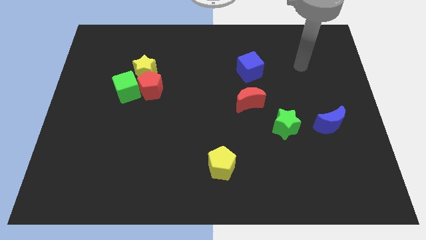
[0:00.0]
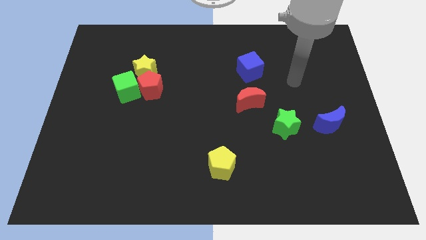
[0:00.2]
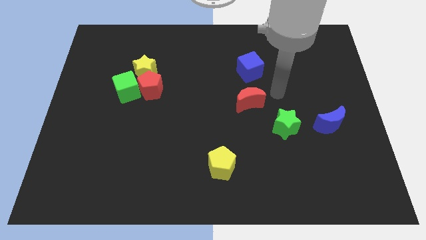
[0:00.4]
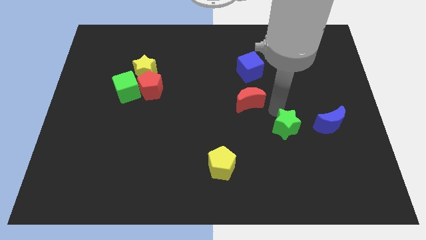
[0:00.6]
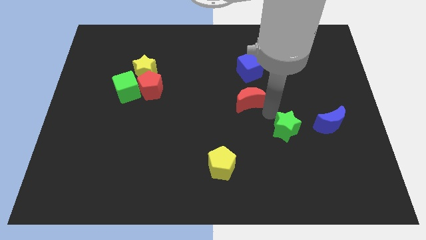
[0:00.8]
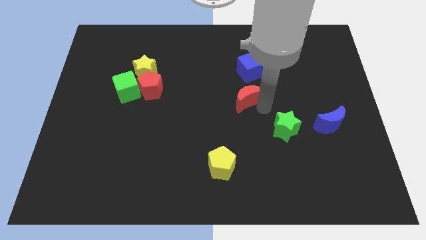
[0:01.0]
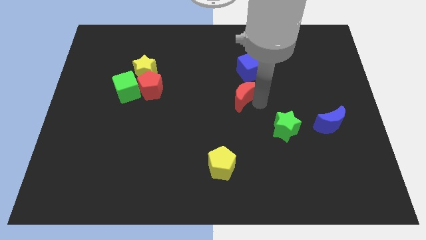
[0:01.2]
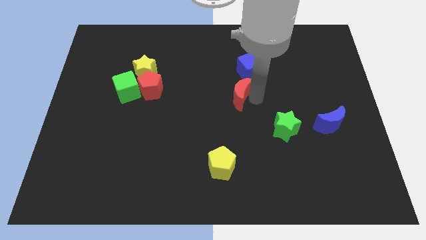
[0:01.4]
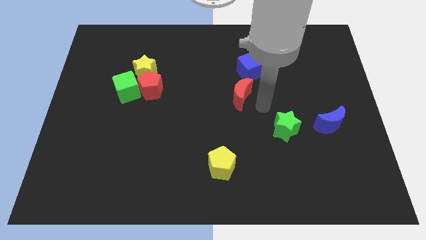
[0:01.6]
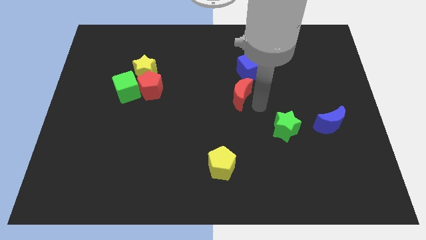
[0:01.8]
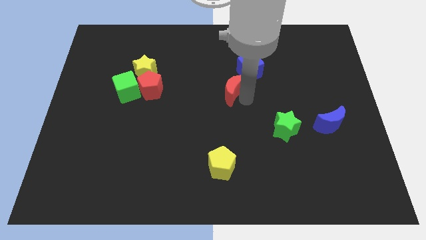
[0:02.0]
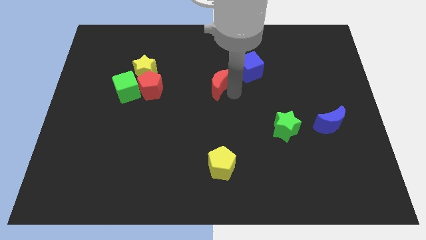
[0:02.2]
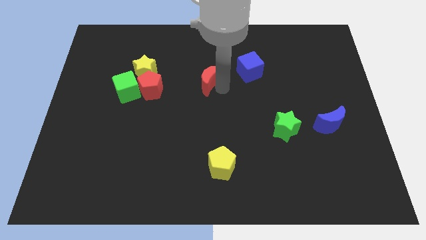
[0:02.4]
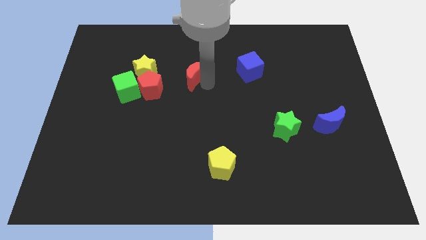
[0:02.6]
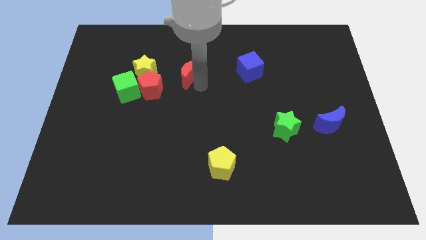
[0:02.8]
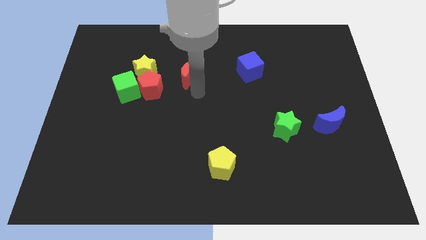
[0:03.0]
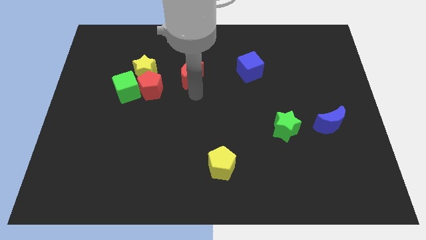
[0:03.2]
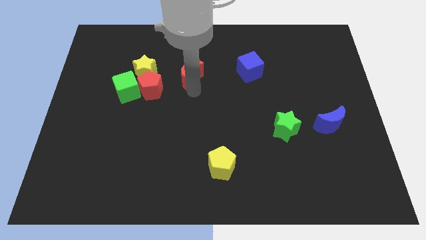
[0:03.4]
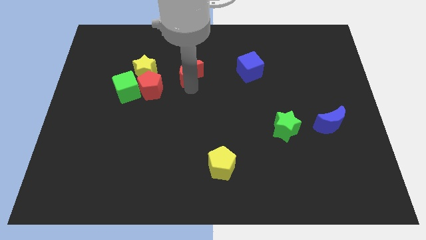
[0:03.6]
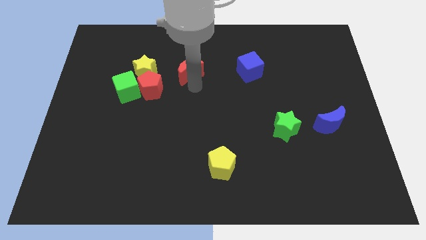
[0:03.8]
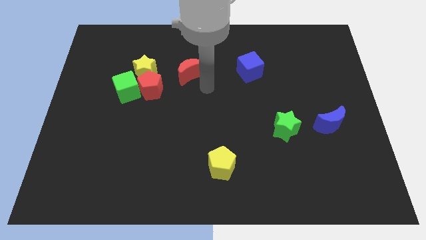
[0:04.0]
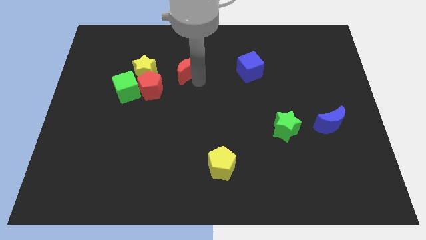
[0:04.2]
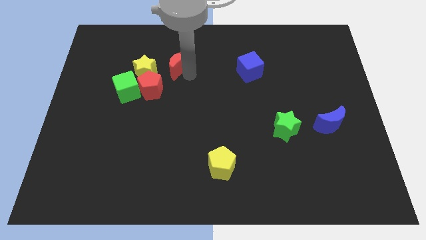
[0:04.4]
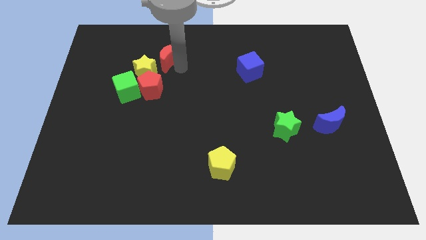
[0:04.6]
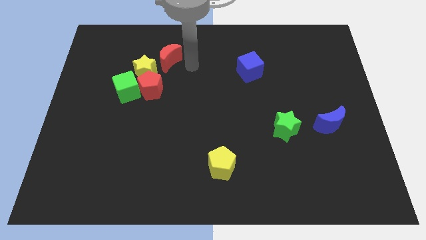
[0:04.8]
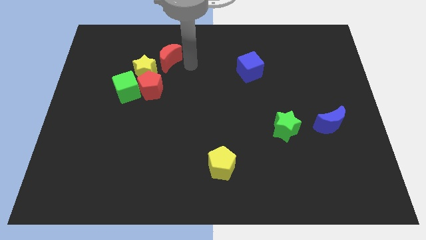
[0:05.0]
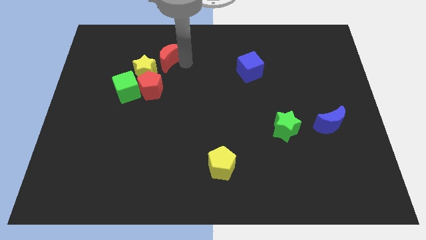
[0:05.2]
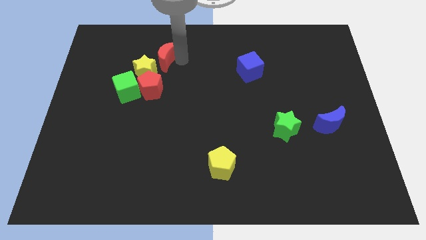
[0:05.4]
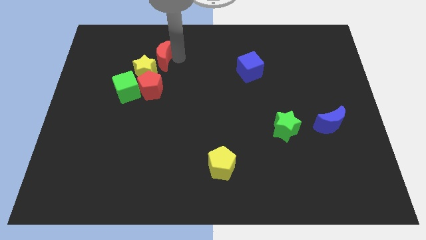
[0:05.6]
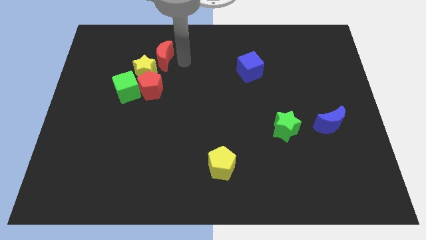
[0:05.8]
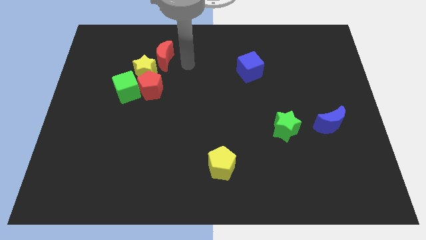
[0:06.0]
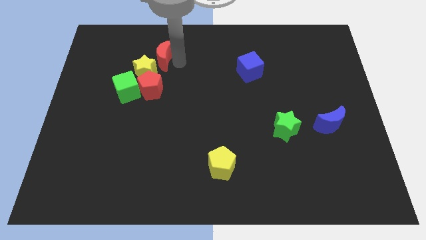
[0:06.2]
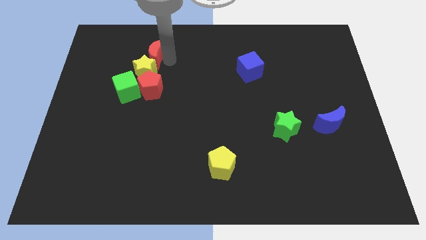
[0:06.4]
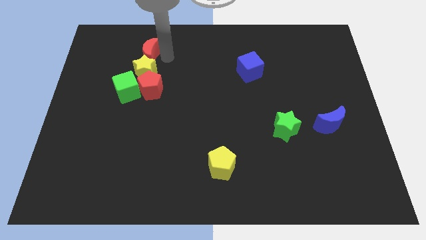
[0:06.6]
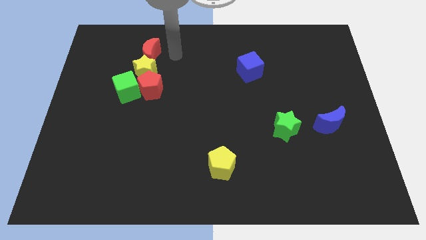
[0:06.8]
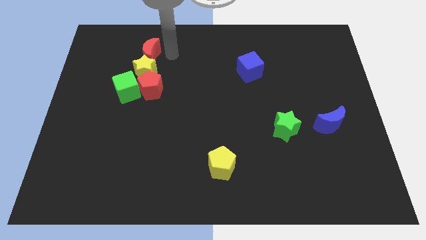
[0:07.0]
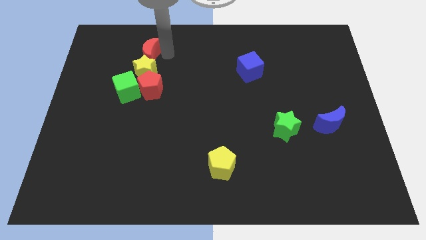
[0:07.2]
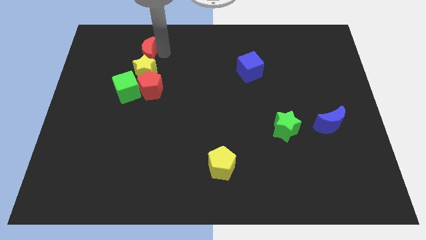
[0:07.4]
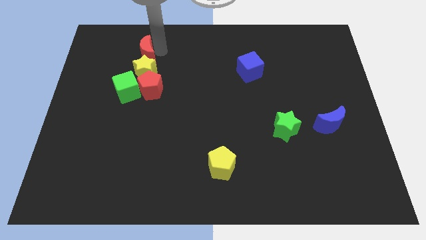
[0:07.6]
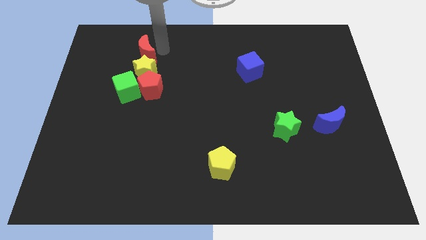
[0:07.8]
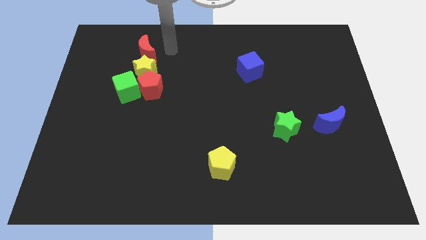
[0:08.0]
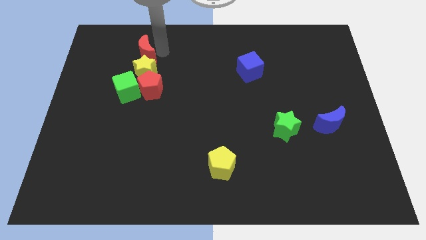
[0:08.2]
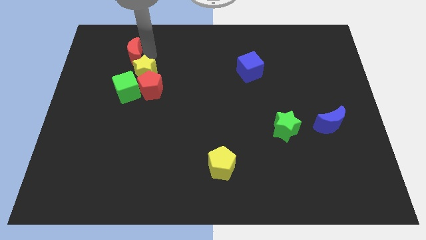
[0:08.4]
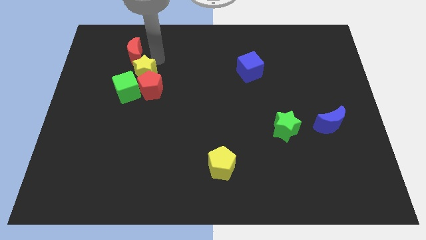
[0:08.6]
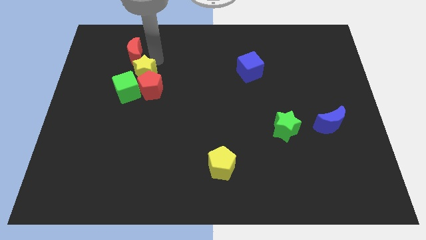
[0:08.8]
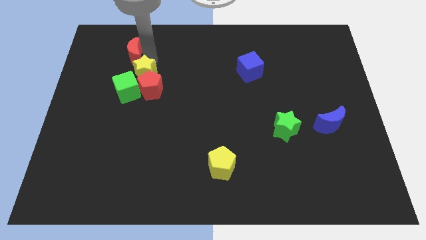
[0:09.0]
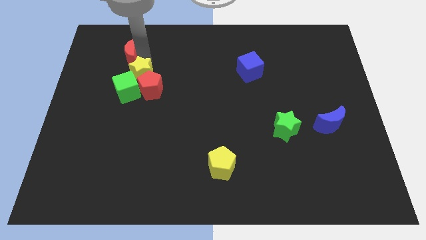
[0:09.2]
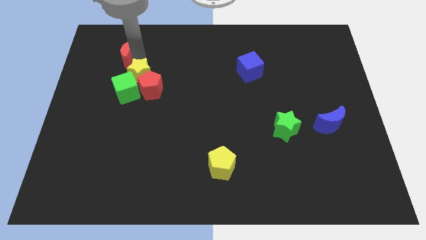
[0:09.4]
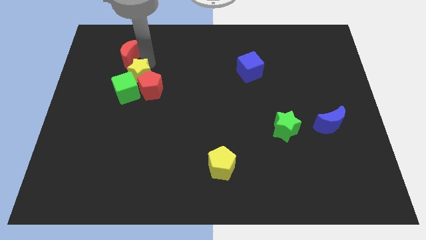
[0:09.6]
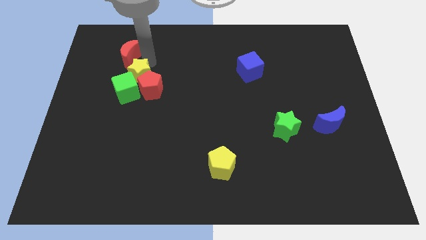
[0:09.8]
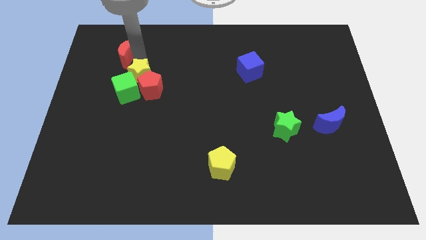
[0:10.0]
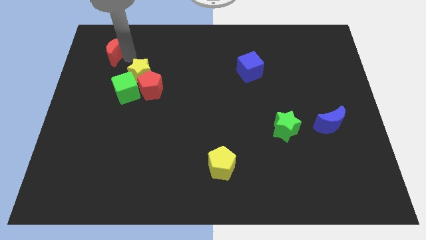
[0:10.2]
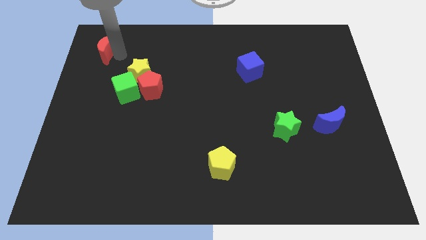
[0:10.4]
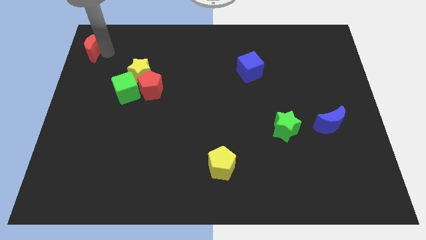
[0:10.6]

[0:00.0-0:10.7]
move the red moon to the top left of the board
